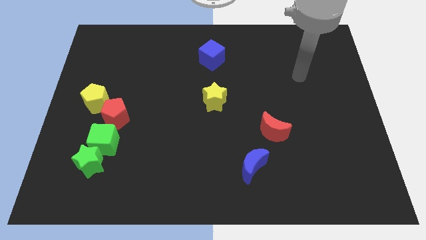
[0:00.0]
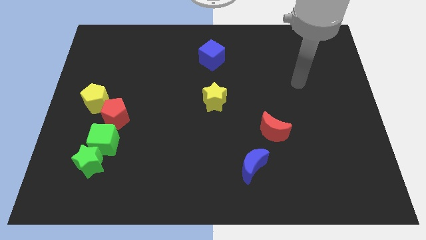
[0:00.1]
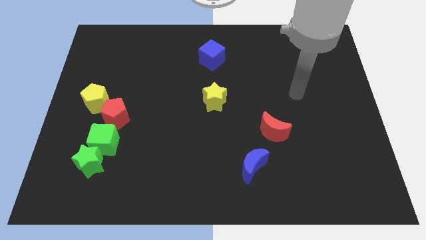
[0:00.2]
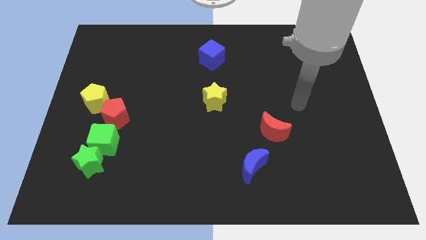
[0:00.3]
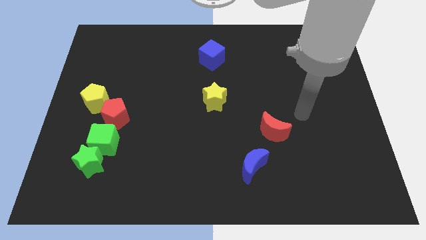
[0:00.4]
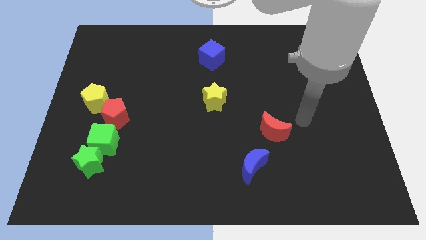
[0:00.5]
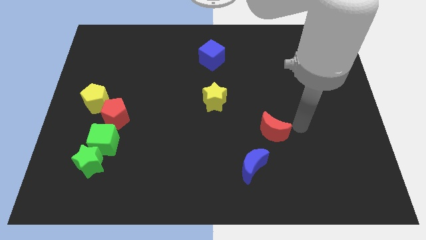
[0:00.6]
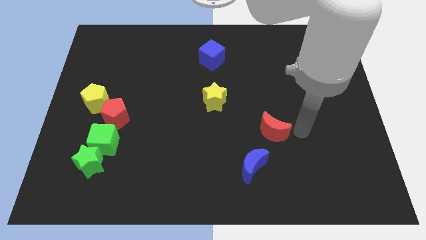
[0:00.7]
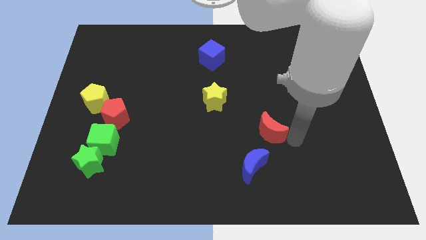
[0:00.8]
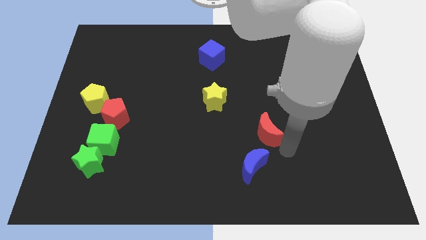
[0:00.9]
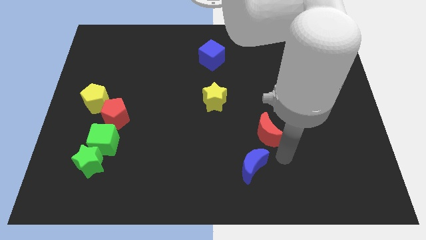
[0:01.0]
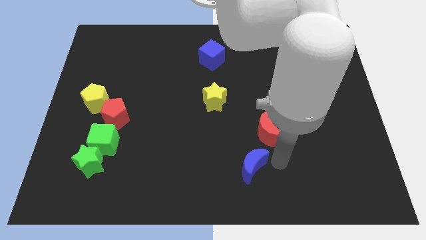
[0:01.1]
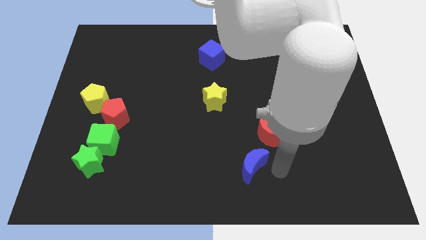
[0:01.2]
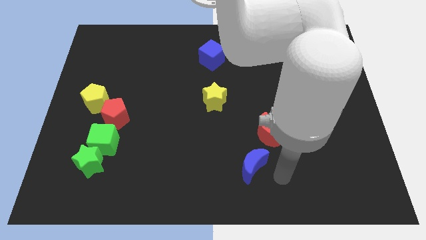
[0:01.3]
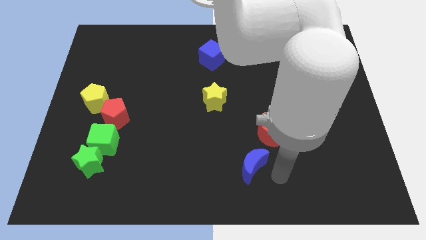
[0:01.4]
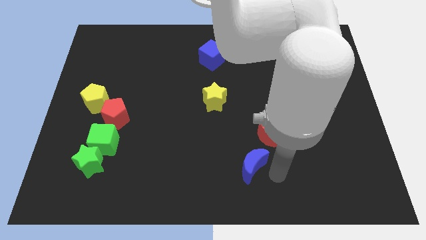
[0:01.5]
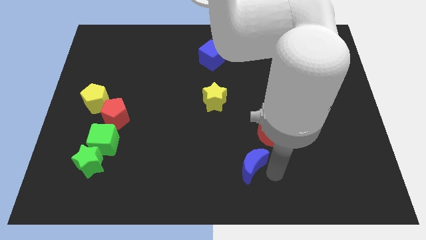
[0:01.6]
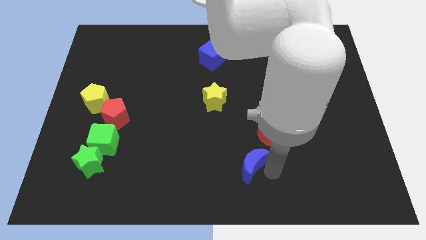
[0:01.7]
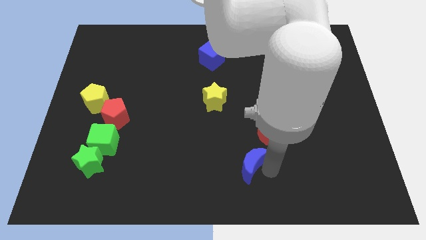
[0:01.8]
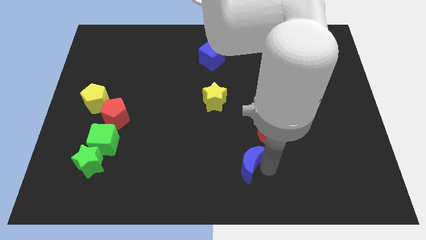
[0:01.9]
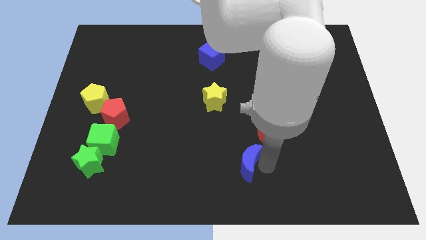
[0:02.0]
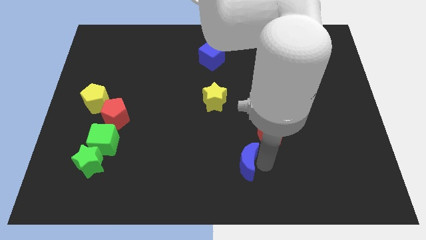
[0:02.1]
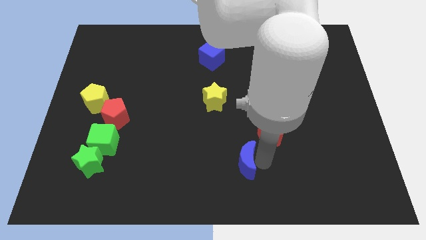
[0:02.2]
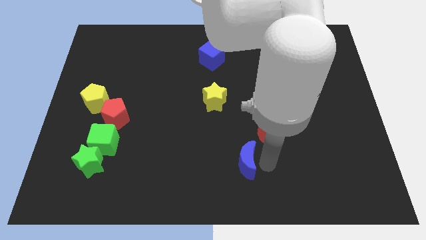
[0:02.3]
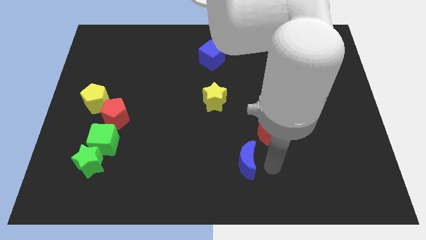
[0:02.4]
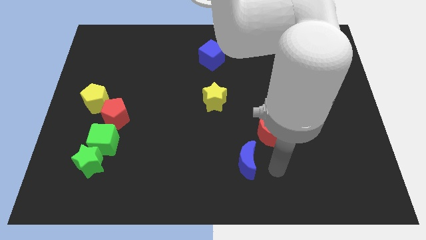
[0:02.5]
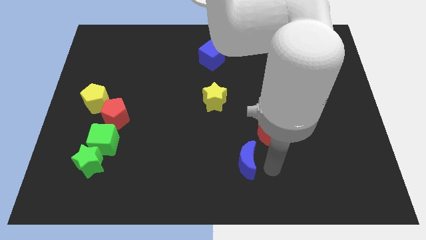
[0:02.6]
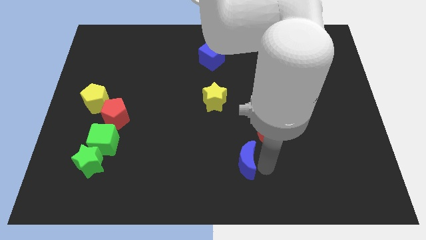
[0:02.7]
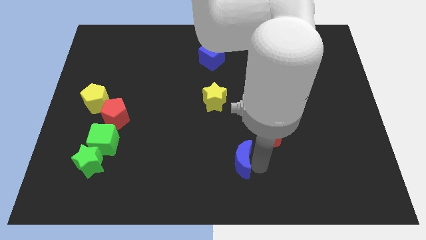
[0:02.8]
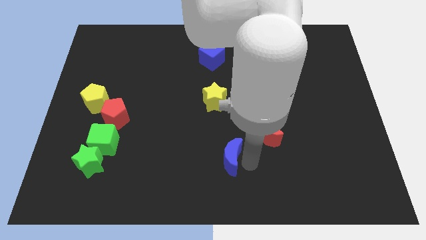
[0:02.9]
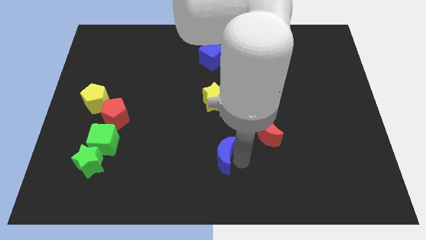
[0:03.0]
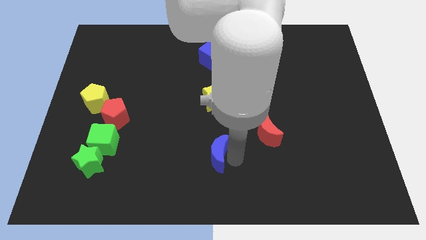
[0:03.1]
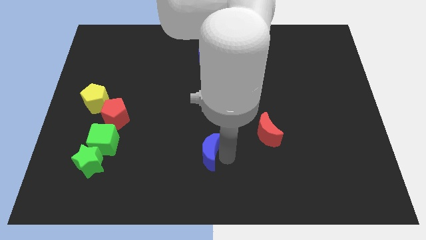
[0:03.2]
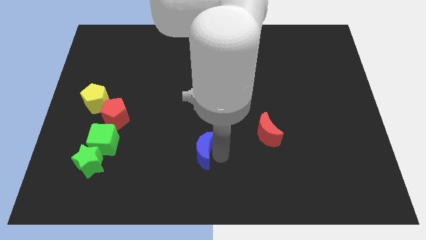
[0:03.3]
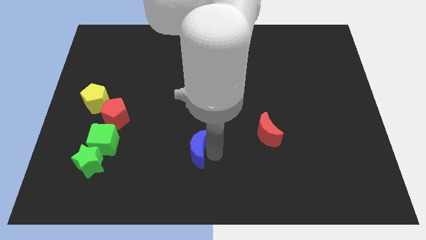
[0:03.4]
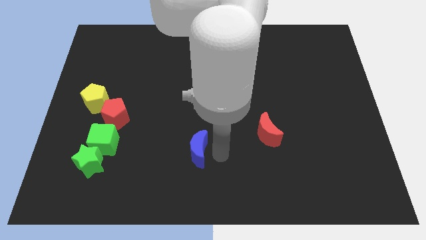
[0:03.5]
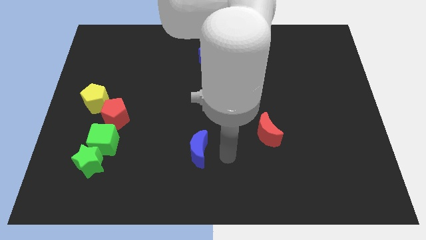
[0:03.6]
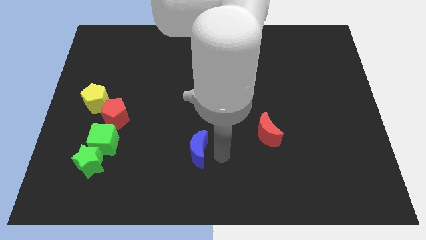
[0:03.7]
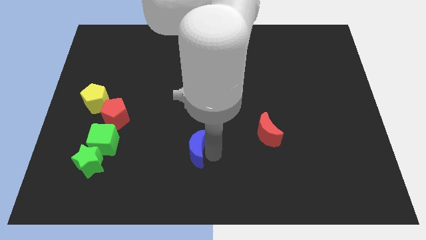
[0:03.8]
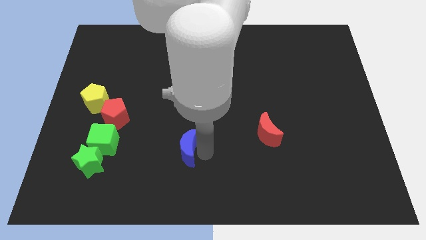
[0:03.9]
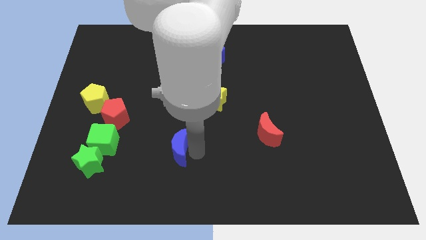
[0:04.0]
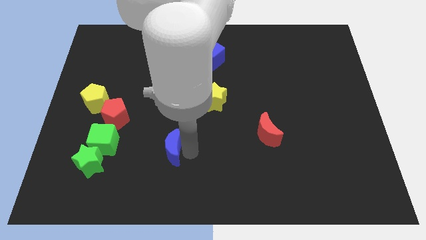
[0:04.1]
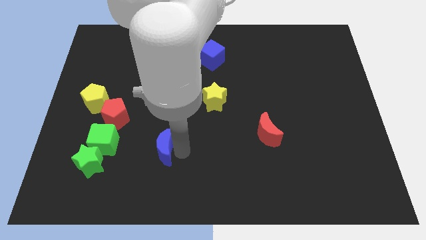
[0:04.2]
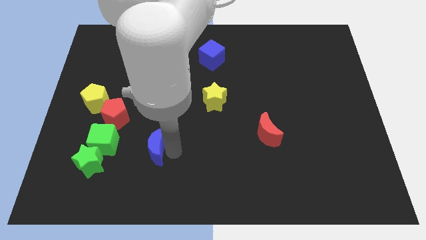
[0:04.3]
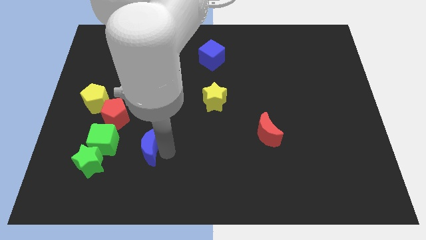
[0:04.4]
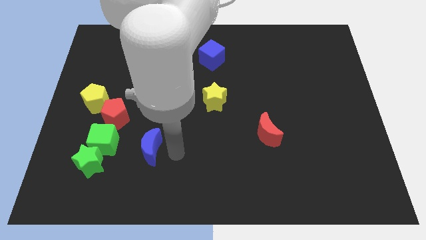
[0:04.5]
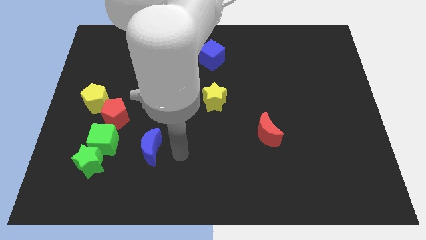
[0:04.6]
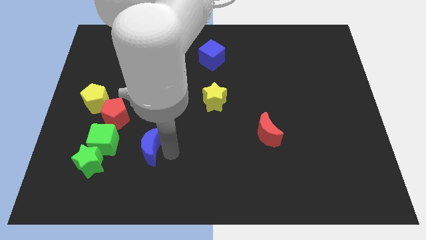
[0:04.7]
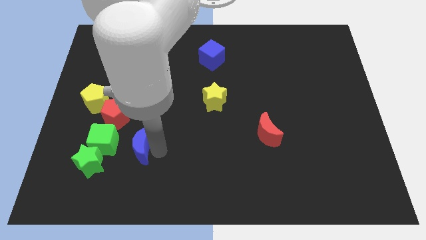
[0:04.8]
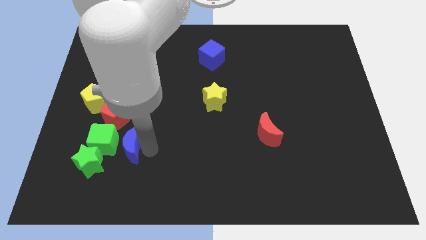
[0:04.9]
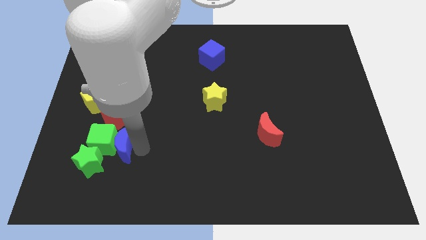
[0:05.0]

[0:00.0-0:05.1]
move the blue moon to the green cube

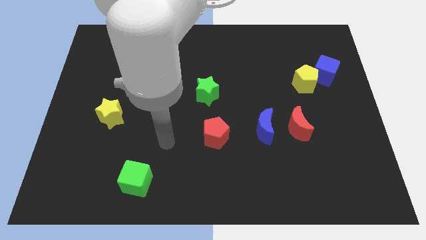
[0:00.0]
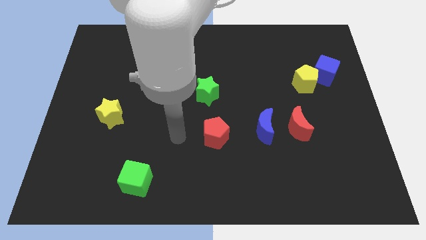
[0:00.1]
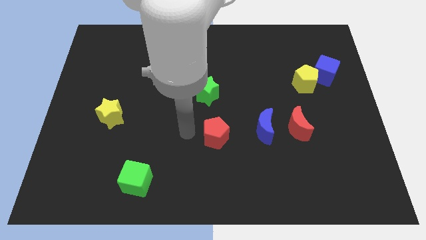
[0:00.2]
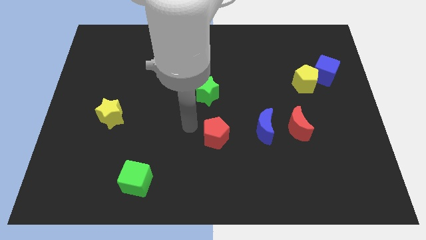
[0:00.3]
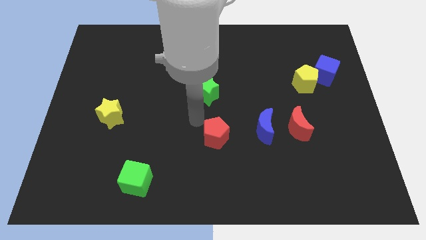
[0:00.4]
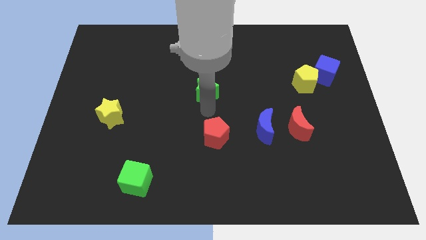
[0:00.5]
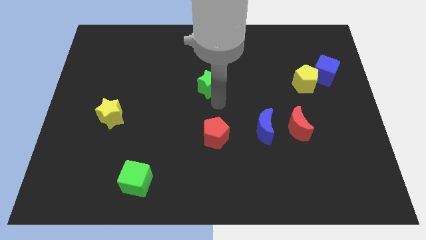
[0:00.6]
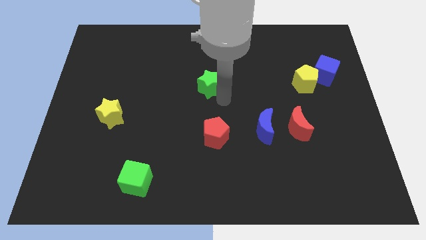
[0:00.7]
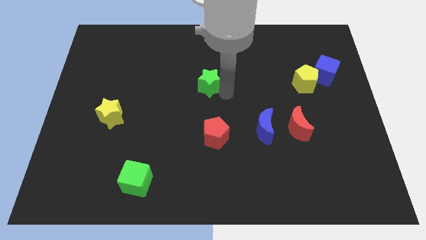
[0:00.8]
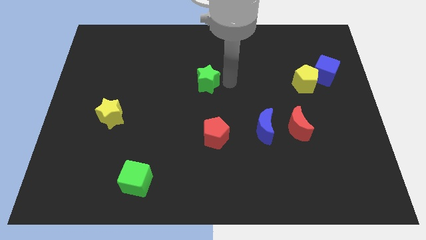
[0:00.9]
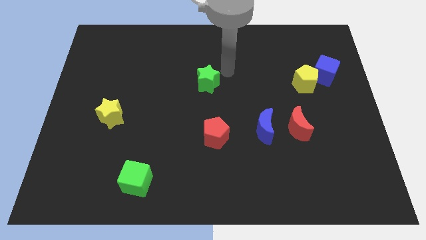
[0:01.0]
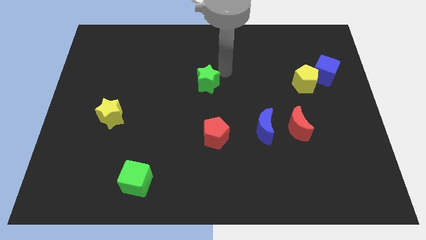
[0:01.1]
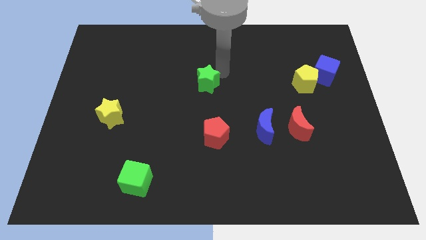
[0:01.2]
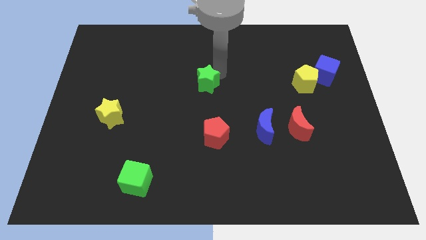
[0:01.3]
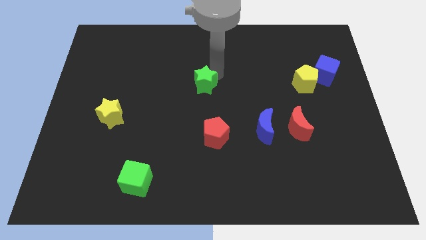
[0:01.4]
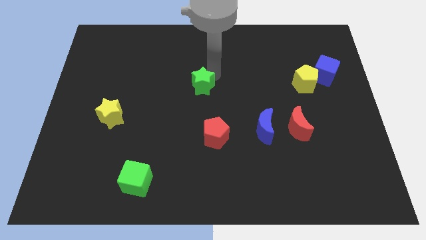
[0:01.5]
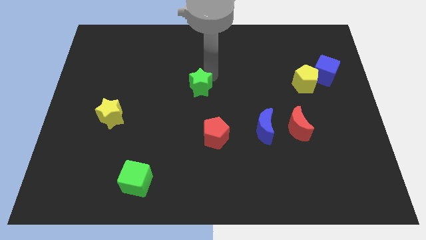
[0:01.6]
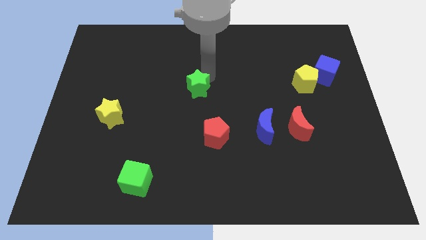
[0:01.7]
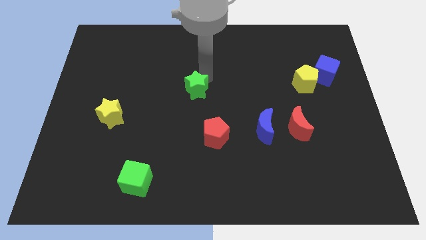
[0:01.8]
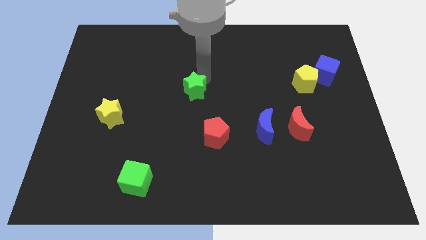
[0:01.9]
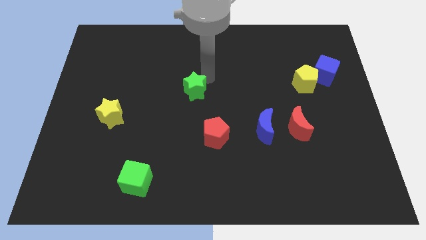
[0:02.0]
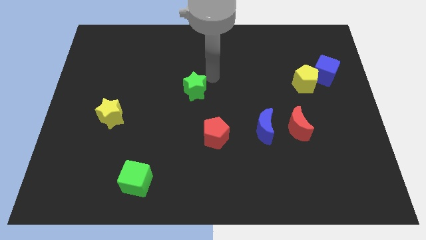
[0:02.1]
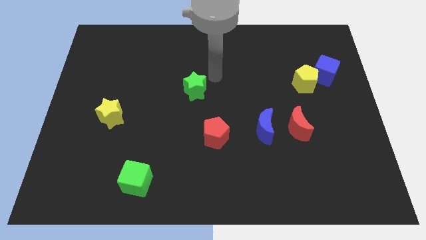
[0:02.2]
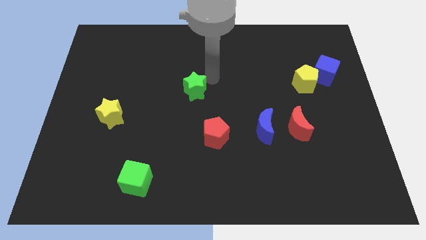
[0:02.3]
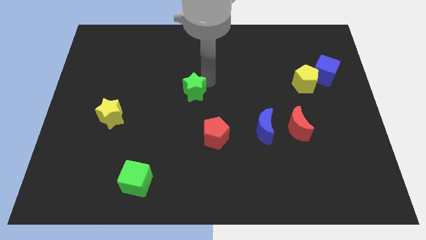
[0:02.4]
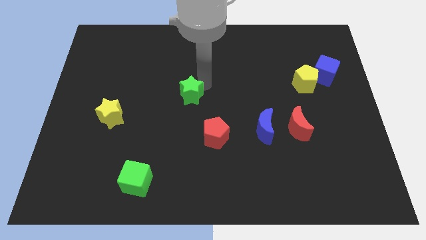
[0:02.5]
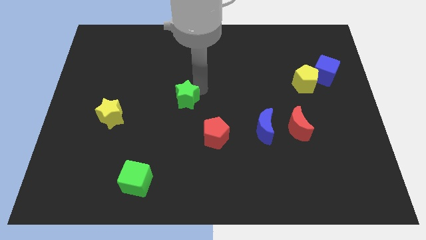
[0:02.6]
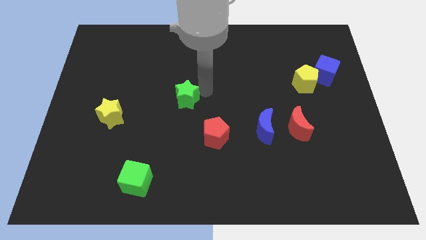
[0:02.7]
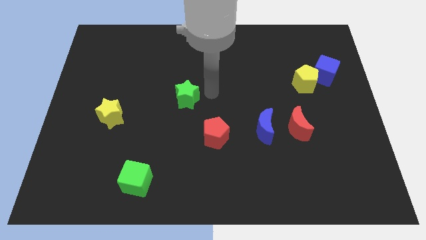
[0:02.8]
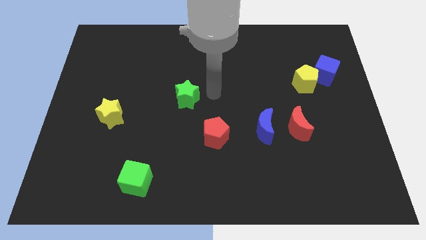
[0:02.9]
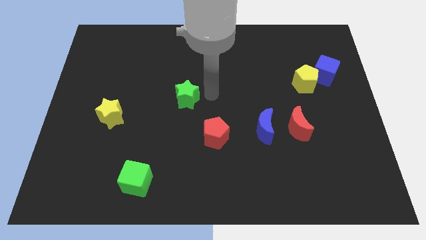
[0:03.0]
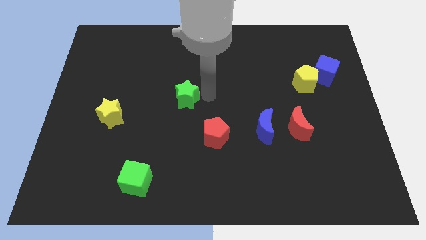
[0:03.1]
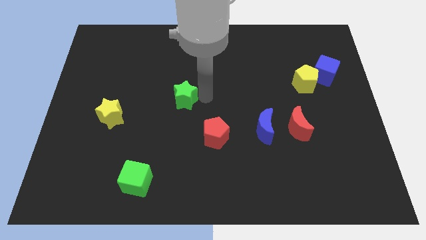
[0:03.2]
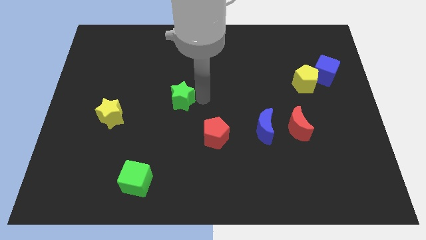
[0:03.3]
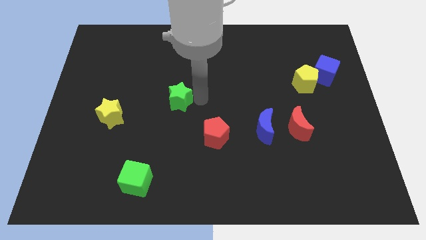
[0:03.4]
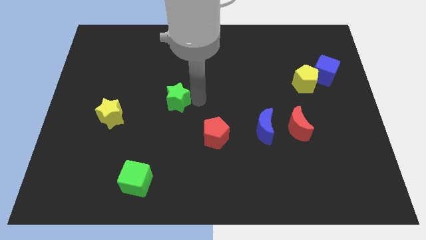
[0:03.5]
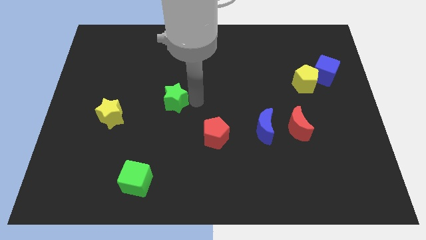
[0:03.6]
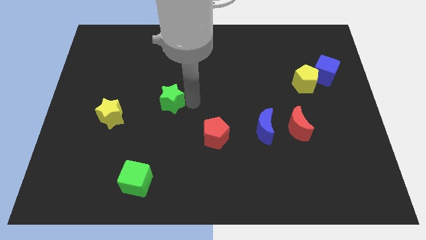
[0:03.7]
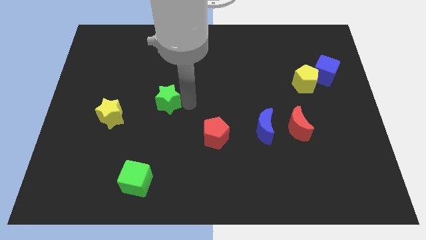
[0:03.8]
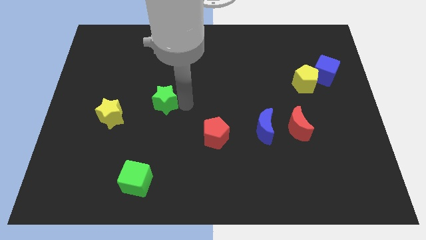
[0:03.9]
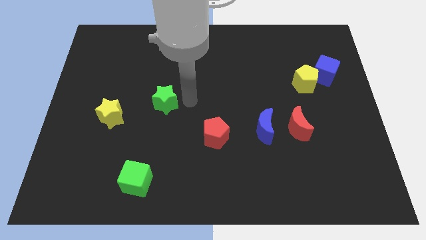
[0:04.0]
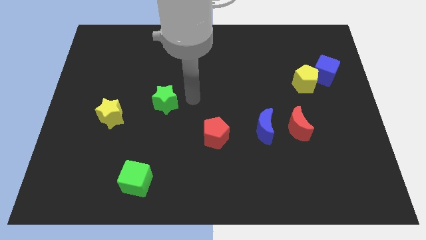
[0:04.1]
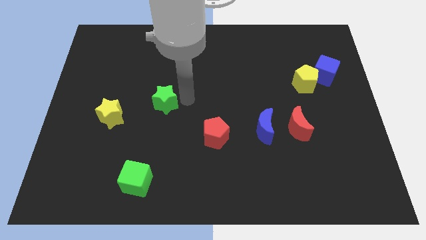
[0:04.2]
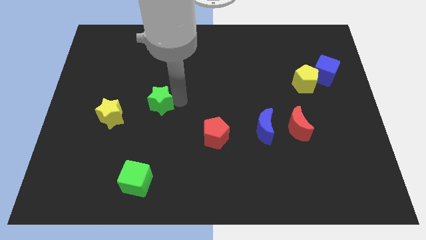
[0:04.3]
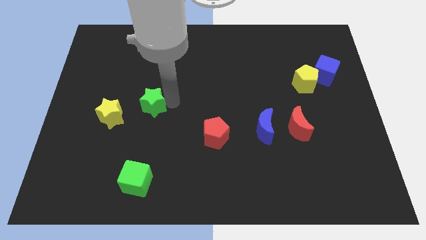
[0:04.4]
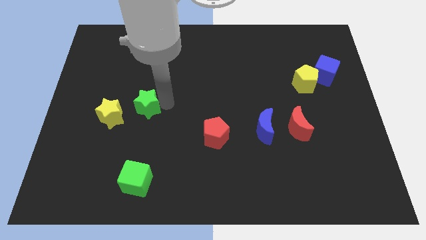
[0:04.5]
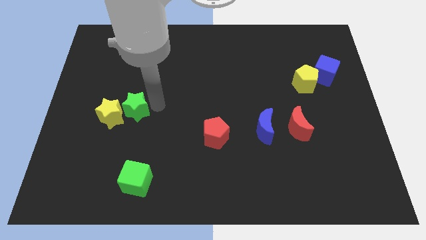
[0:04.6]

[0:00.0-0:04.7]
put the green star towards the yellow star
